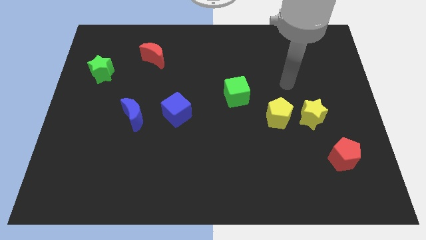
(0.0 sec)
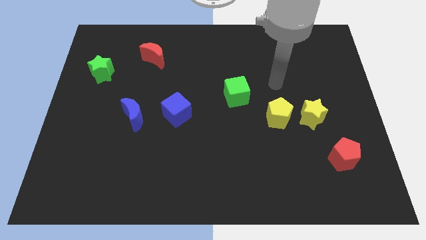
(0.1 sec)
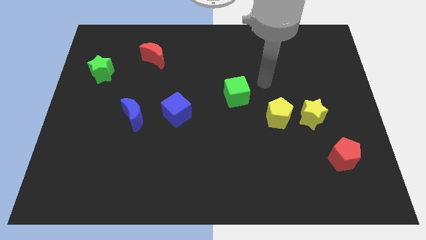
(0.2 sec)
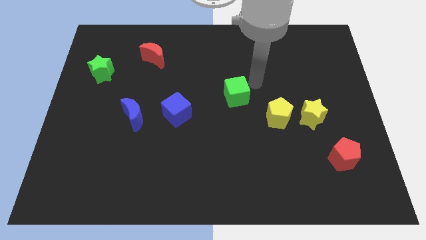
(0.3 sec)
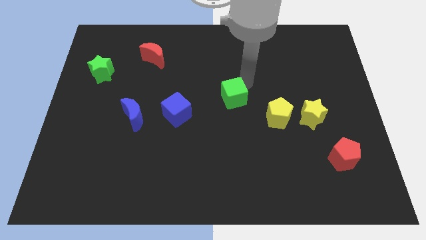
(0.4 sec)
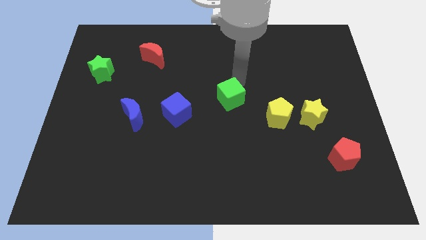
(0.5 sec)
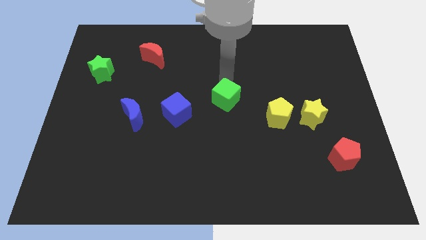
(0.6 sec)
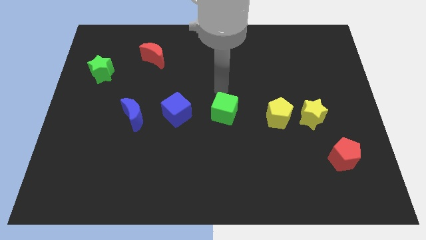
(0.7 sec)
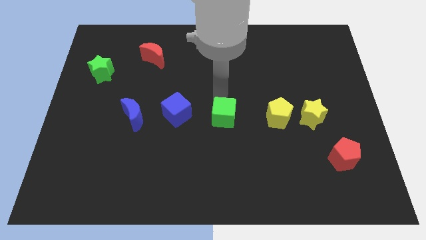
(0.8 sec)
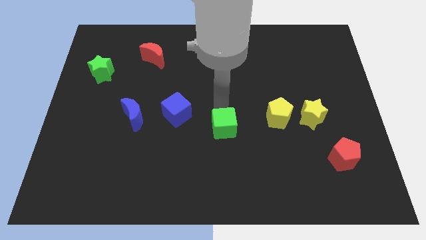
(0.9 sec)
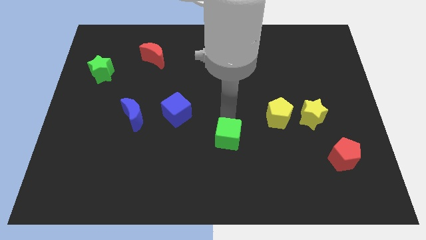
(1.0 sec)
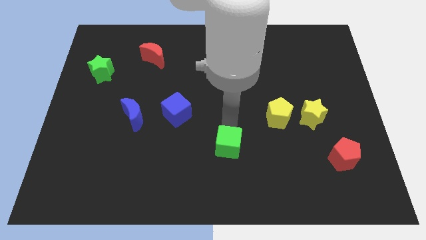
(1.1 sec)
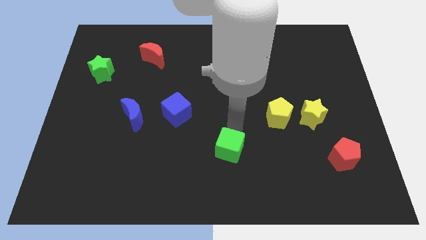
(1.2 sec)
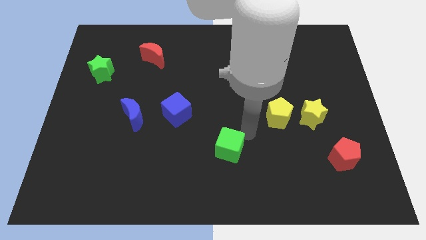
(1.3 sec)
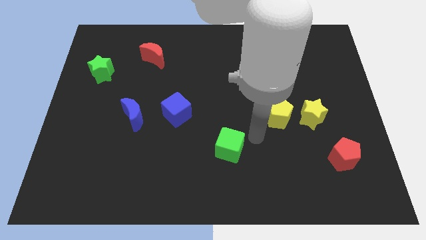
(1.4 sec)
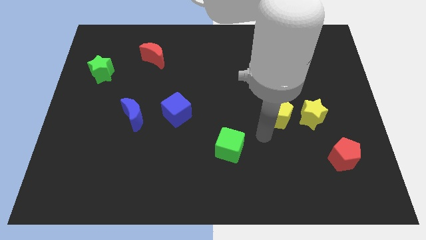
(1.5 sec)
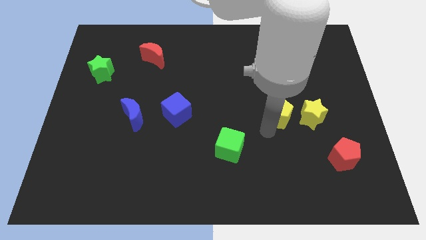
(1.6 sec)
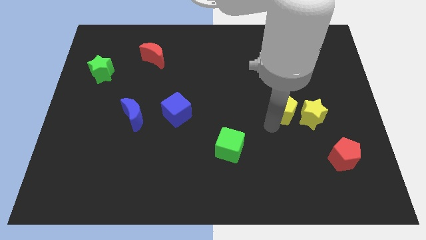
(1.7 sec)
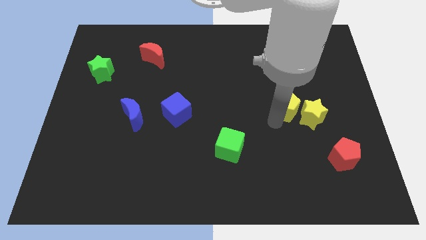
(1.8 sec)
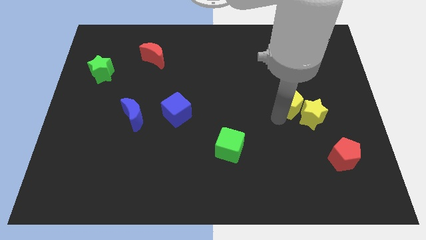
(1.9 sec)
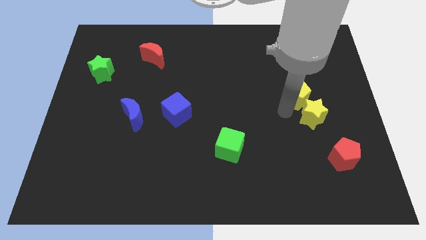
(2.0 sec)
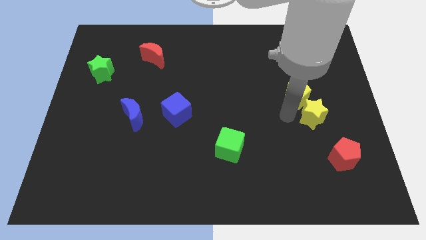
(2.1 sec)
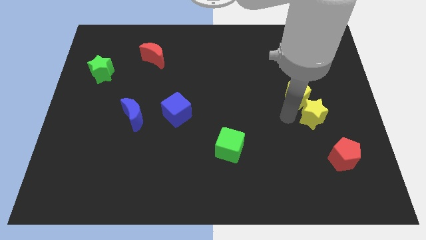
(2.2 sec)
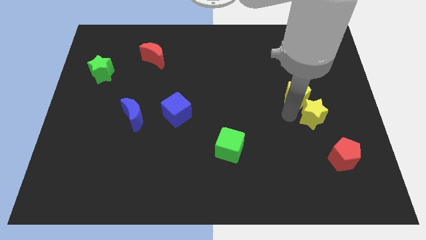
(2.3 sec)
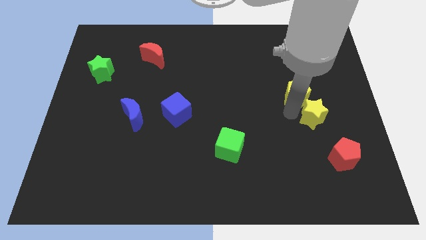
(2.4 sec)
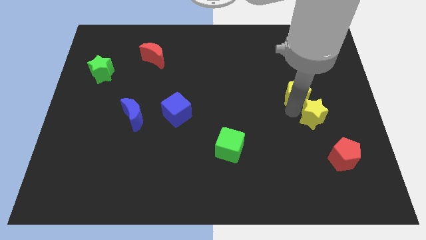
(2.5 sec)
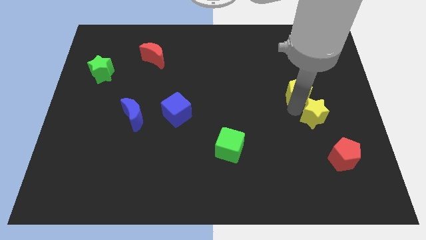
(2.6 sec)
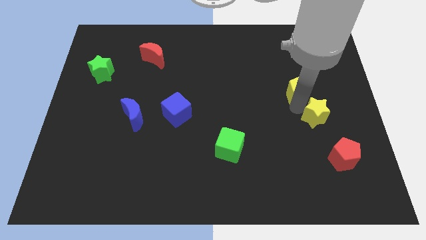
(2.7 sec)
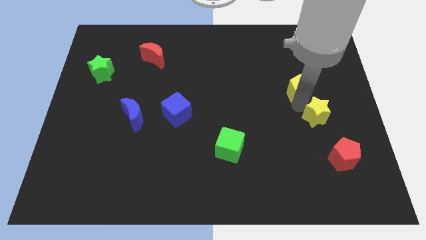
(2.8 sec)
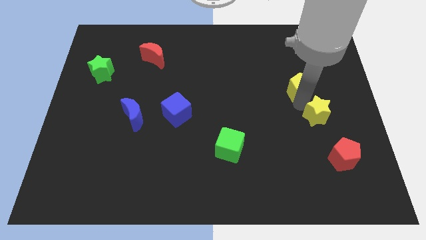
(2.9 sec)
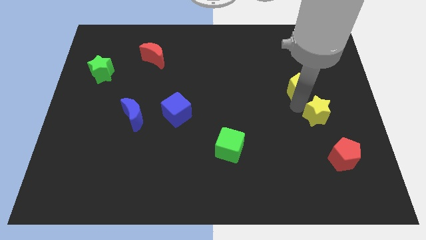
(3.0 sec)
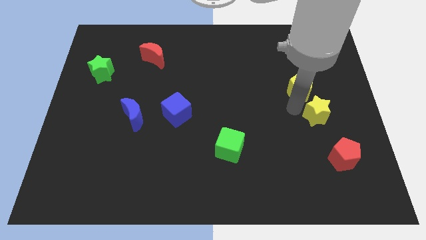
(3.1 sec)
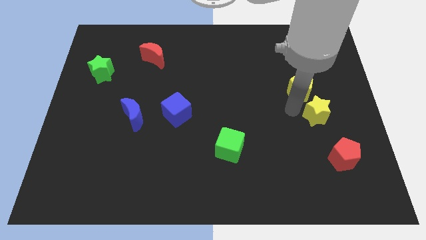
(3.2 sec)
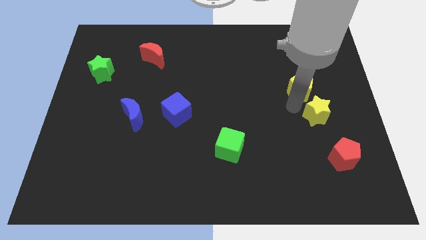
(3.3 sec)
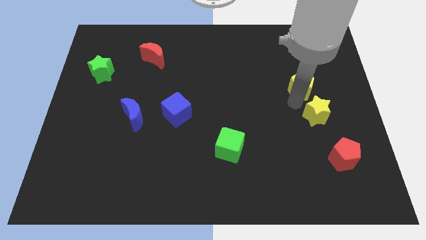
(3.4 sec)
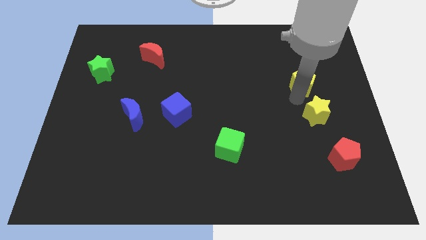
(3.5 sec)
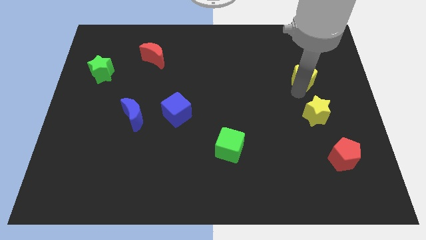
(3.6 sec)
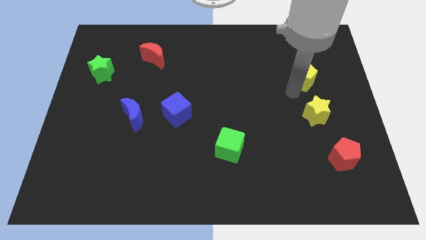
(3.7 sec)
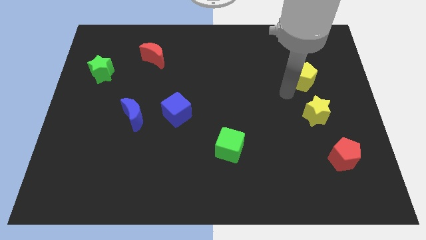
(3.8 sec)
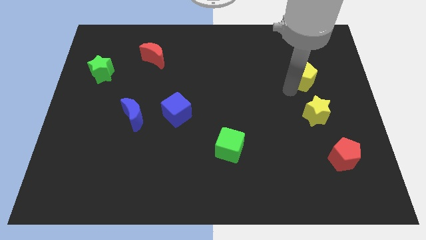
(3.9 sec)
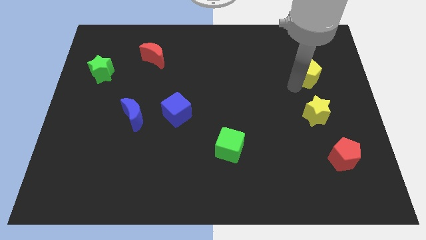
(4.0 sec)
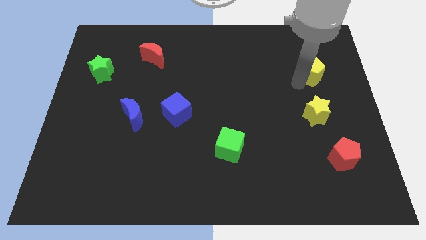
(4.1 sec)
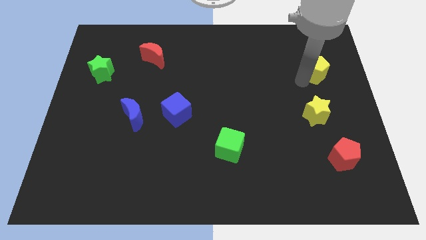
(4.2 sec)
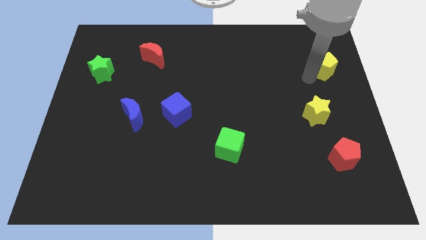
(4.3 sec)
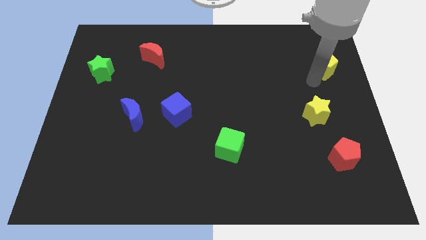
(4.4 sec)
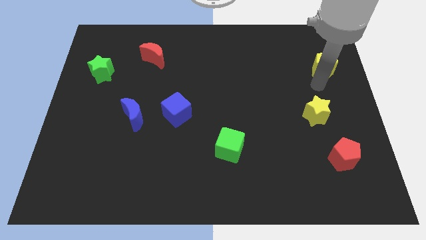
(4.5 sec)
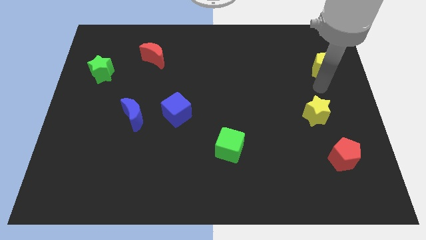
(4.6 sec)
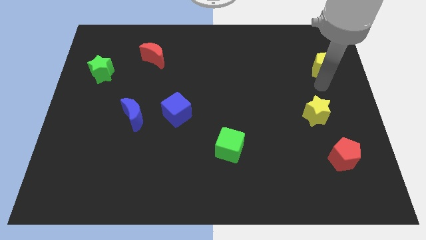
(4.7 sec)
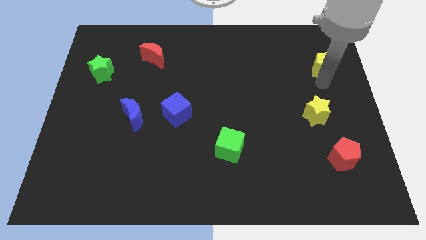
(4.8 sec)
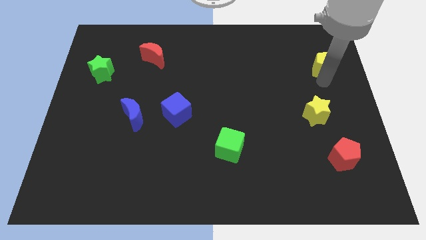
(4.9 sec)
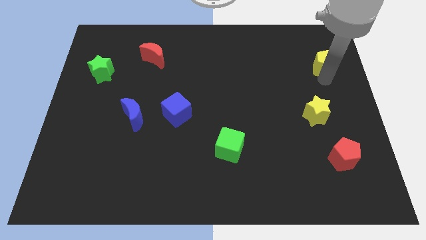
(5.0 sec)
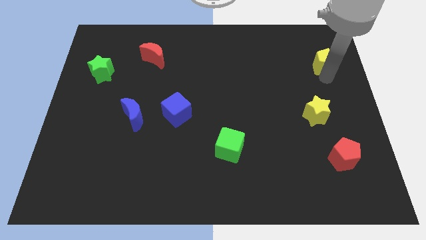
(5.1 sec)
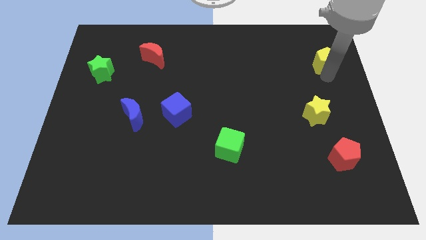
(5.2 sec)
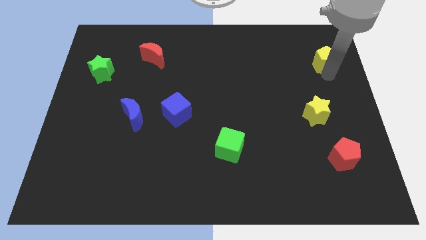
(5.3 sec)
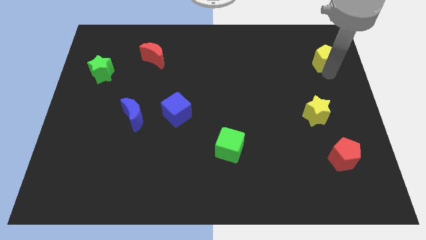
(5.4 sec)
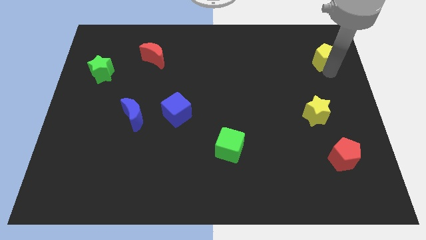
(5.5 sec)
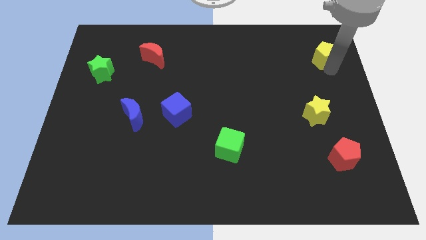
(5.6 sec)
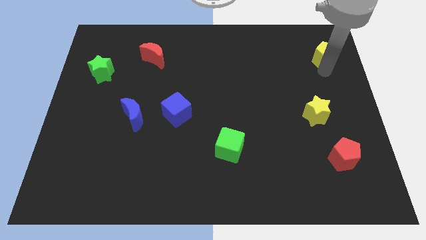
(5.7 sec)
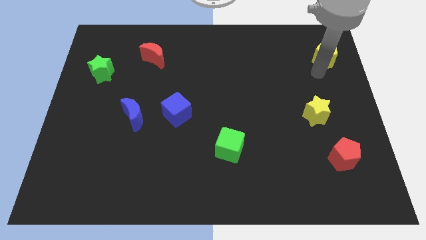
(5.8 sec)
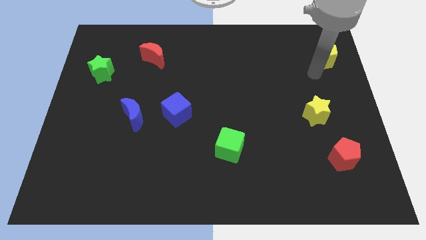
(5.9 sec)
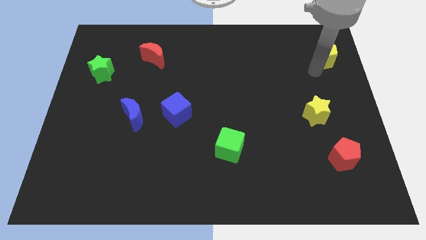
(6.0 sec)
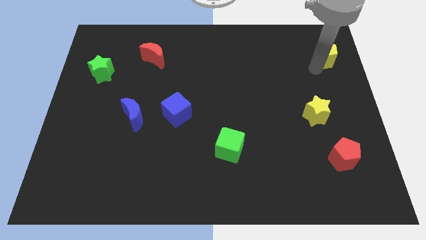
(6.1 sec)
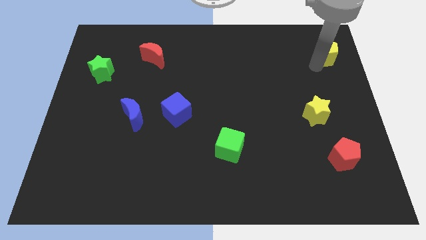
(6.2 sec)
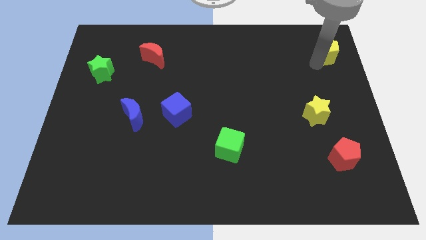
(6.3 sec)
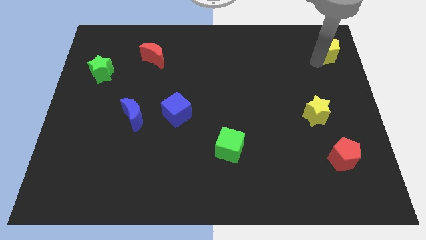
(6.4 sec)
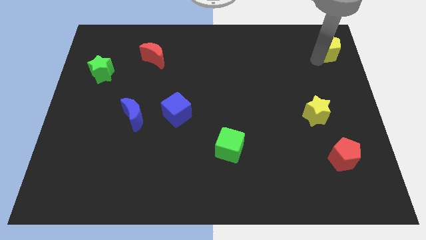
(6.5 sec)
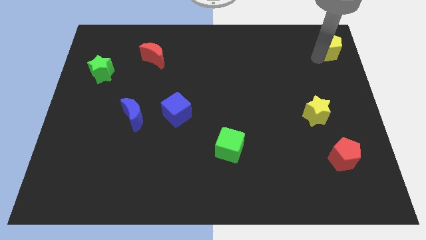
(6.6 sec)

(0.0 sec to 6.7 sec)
move the yellow pentagon to the top right of the board

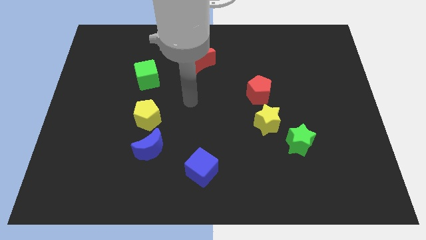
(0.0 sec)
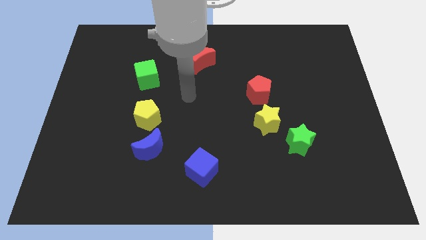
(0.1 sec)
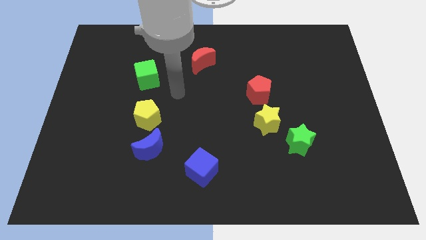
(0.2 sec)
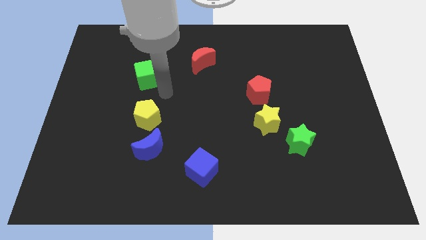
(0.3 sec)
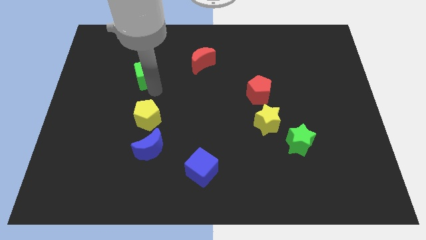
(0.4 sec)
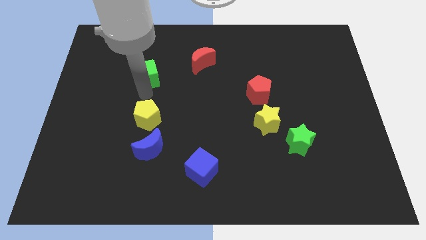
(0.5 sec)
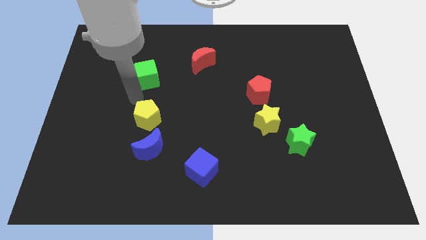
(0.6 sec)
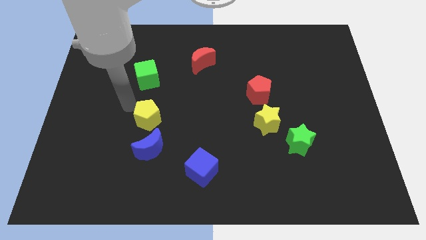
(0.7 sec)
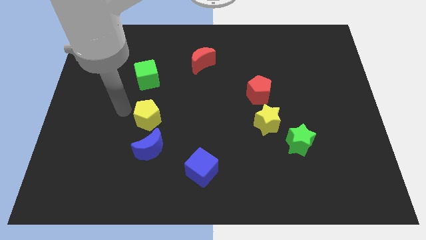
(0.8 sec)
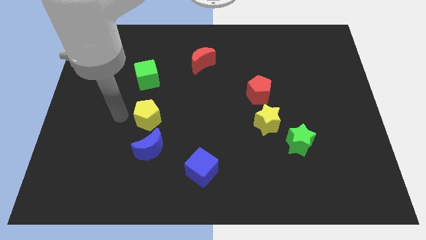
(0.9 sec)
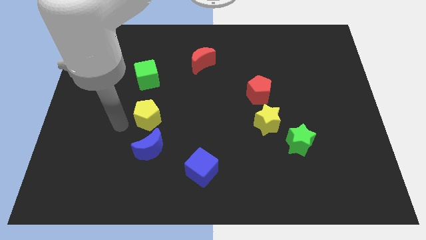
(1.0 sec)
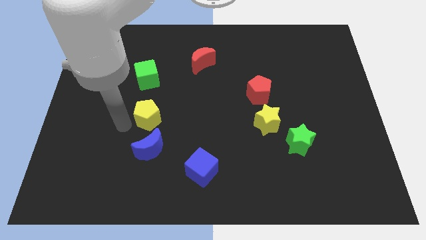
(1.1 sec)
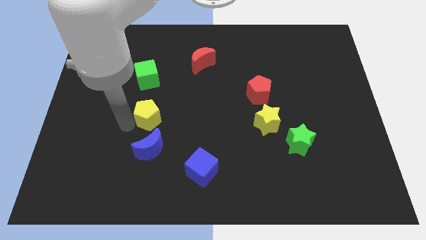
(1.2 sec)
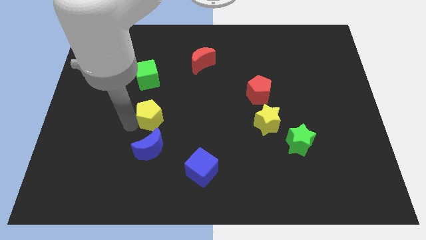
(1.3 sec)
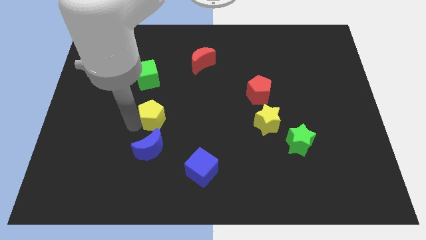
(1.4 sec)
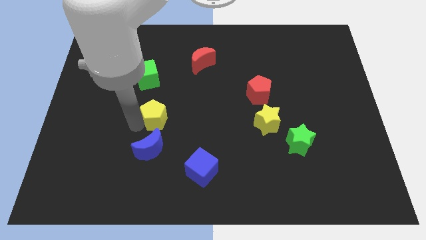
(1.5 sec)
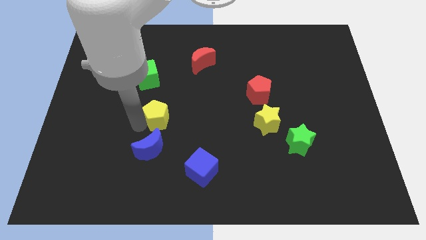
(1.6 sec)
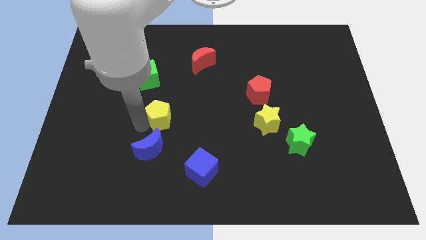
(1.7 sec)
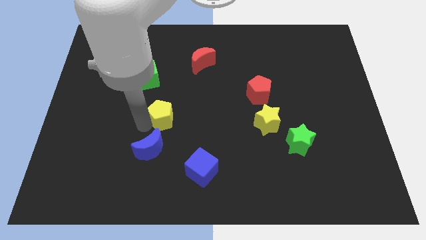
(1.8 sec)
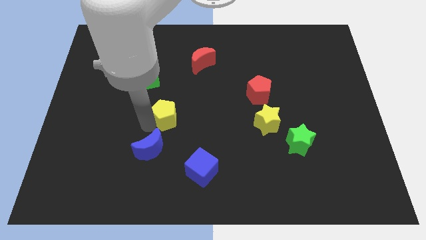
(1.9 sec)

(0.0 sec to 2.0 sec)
move the yellow pentagon to the center
